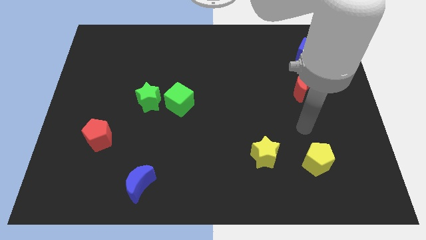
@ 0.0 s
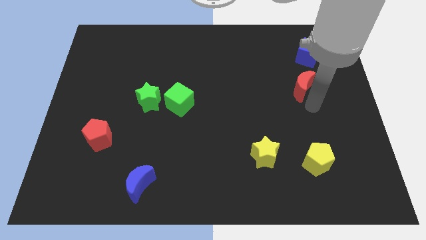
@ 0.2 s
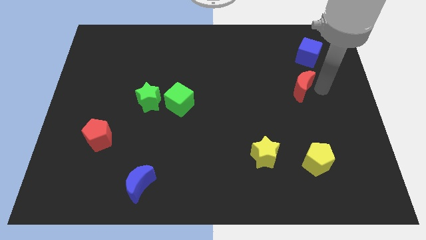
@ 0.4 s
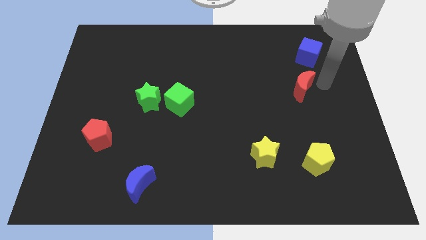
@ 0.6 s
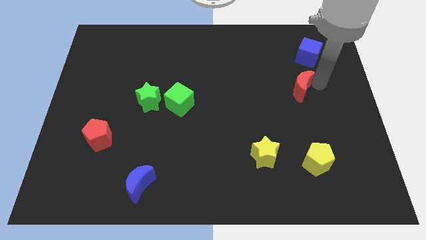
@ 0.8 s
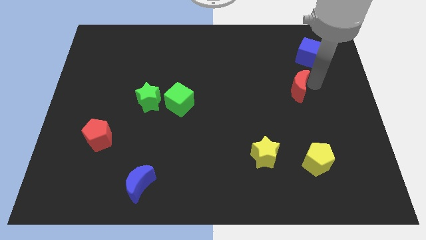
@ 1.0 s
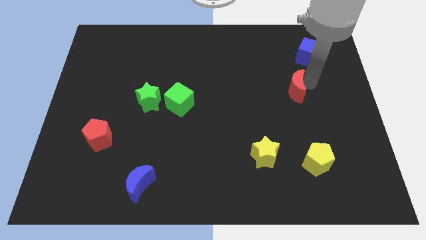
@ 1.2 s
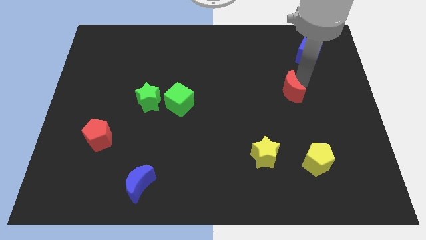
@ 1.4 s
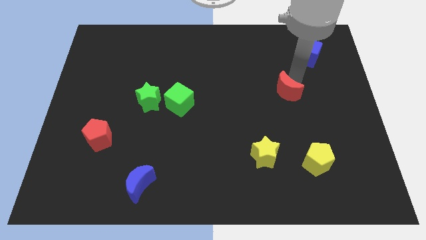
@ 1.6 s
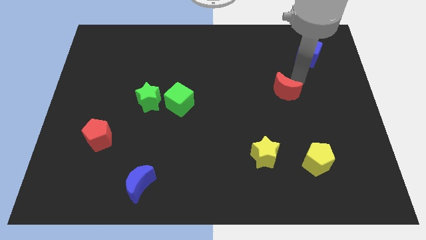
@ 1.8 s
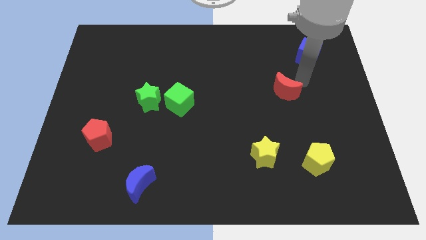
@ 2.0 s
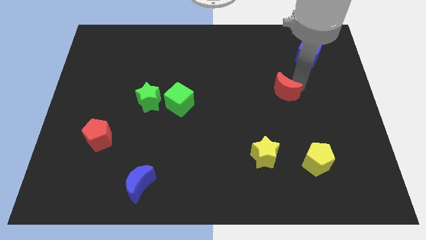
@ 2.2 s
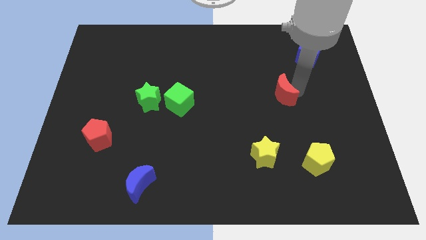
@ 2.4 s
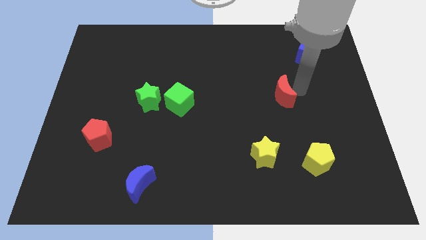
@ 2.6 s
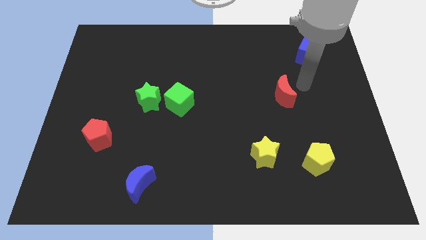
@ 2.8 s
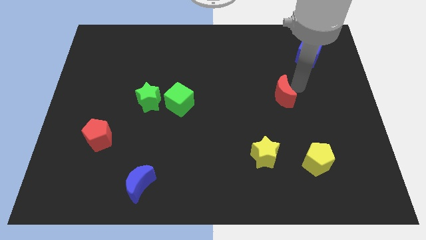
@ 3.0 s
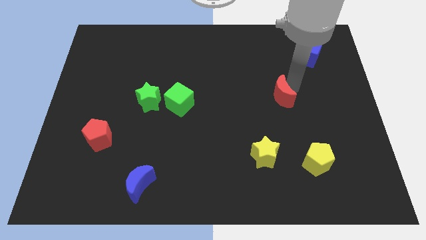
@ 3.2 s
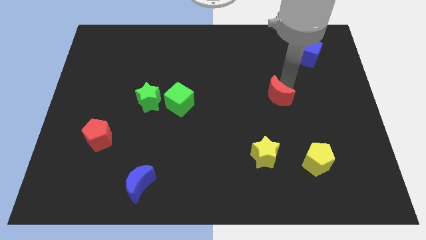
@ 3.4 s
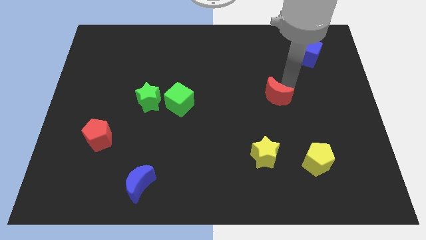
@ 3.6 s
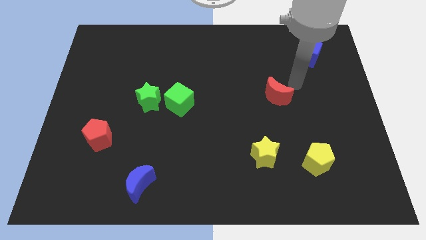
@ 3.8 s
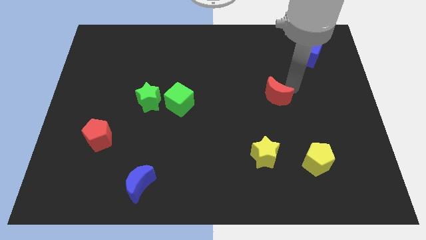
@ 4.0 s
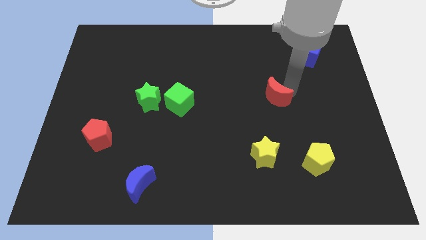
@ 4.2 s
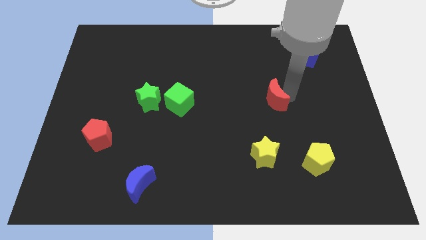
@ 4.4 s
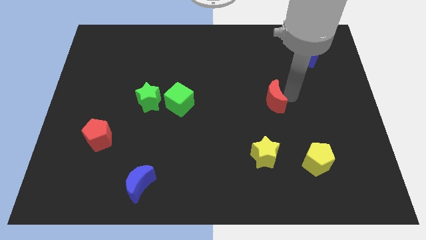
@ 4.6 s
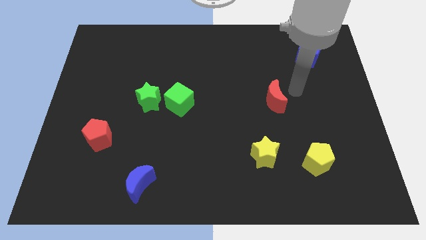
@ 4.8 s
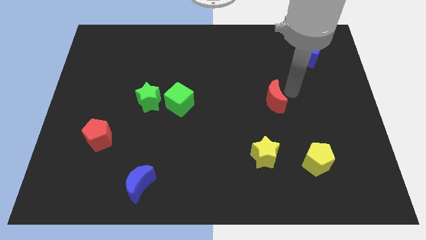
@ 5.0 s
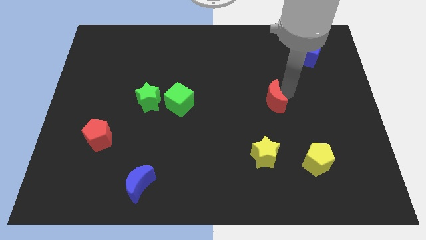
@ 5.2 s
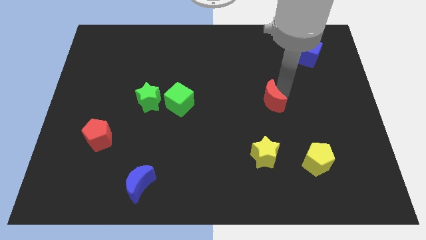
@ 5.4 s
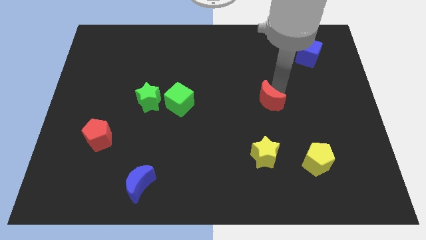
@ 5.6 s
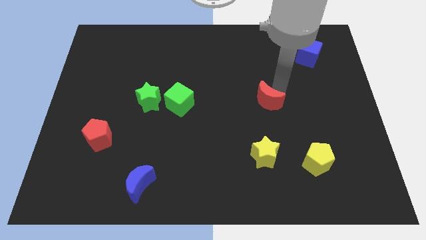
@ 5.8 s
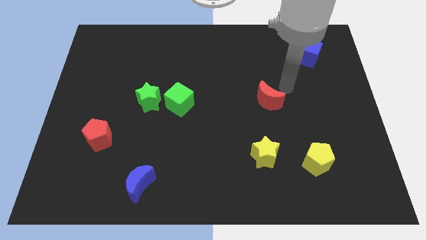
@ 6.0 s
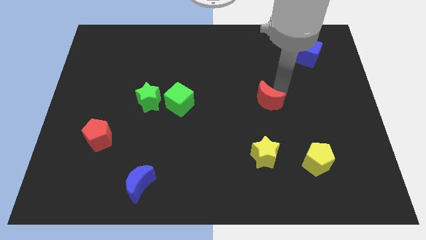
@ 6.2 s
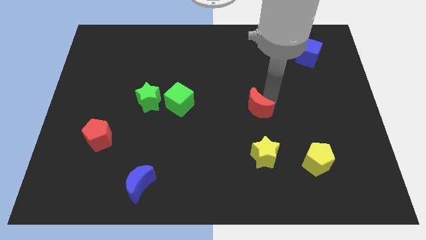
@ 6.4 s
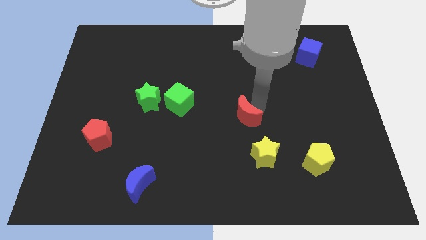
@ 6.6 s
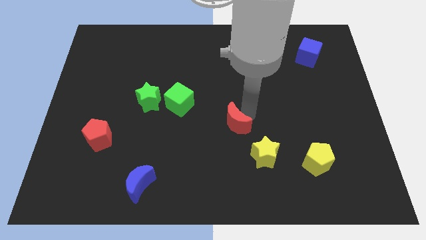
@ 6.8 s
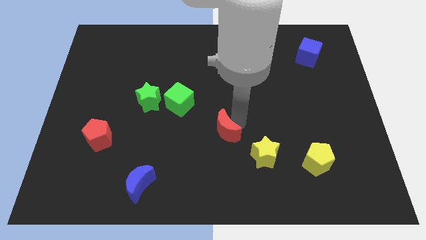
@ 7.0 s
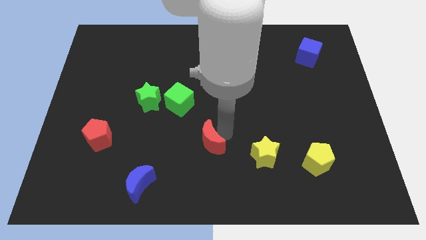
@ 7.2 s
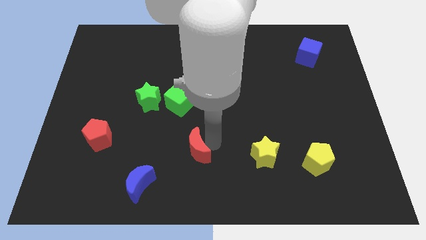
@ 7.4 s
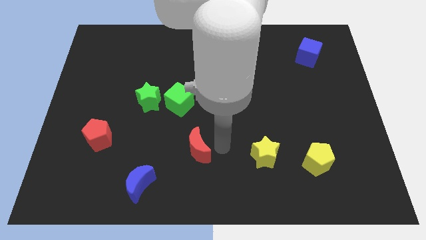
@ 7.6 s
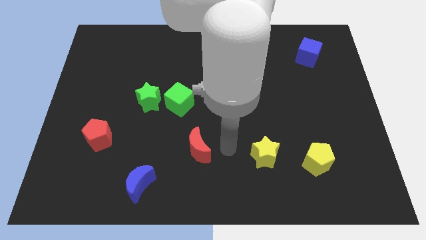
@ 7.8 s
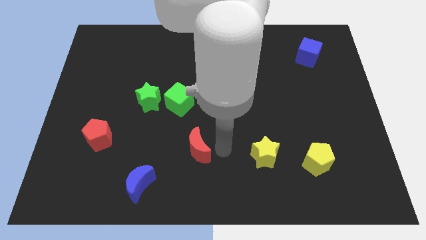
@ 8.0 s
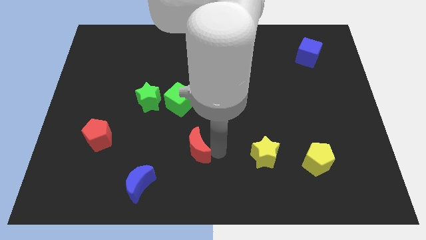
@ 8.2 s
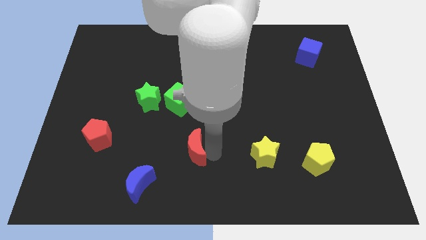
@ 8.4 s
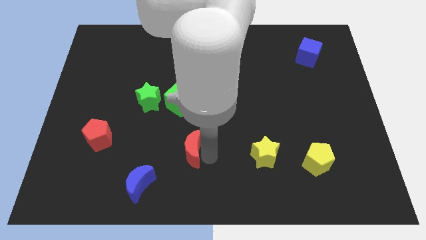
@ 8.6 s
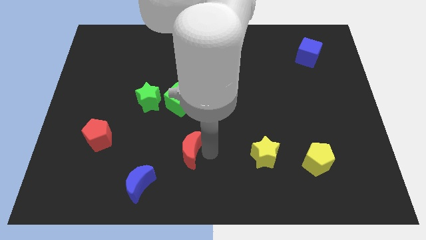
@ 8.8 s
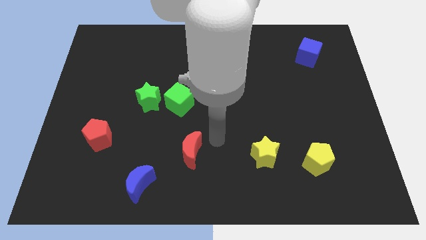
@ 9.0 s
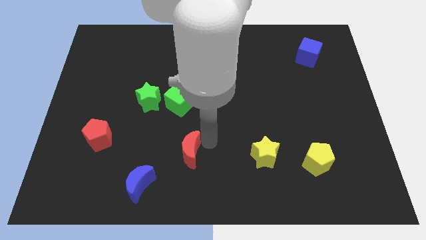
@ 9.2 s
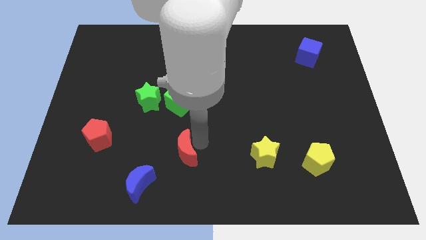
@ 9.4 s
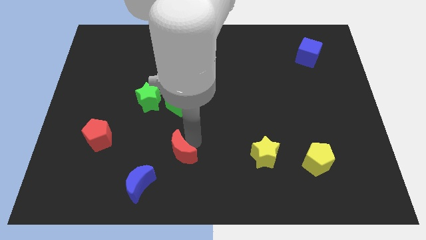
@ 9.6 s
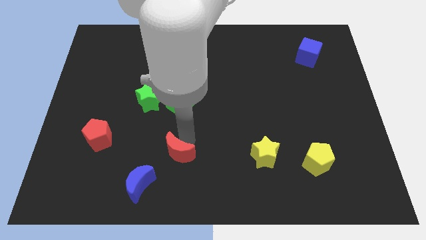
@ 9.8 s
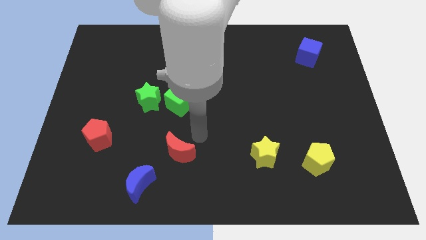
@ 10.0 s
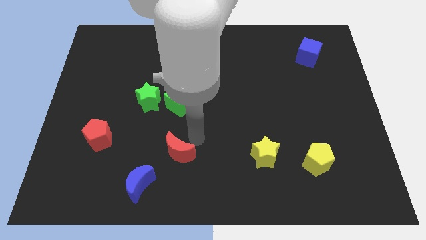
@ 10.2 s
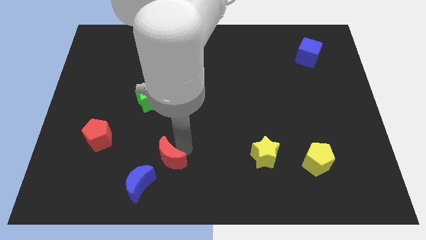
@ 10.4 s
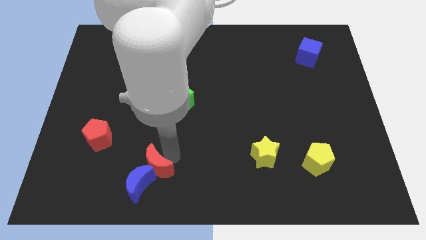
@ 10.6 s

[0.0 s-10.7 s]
move the red moon towards the blue moon

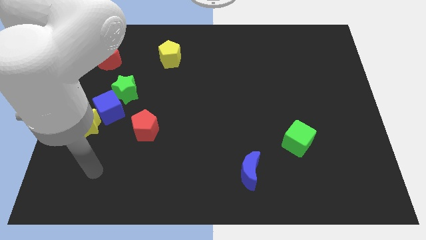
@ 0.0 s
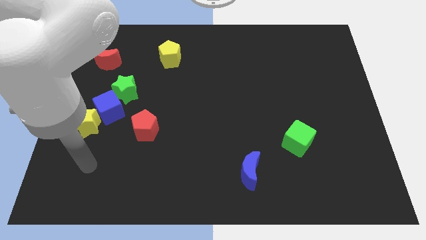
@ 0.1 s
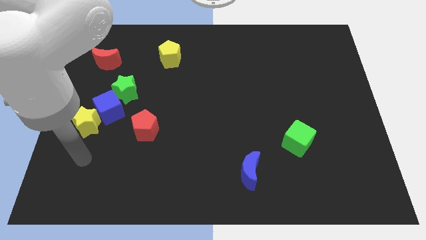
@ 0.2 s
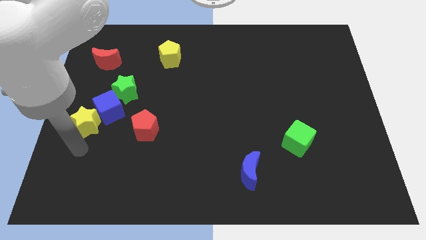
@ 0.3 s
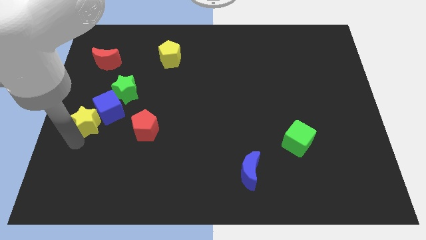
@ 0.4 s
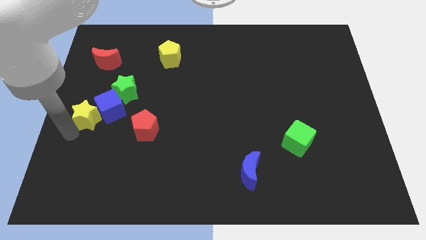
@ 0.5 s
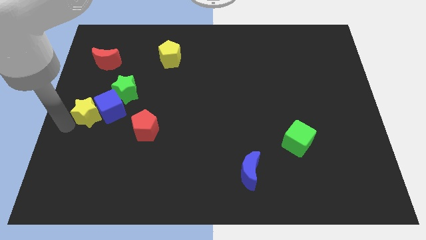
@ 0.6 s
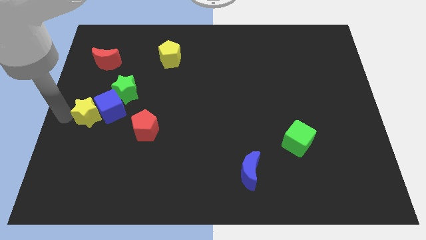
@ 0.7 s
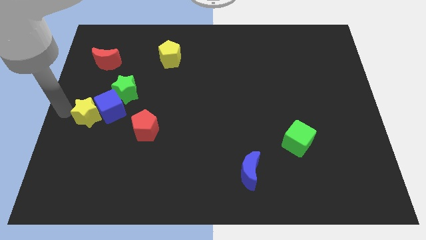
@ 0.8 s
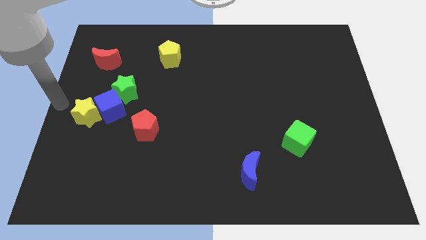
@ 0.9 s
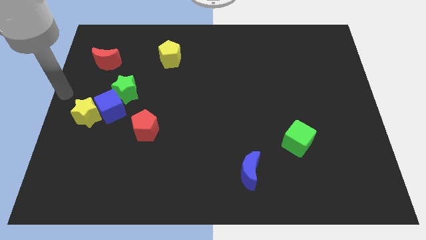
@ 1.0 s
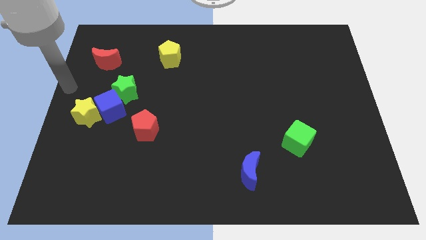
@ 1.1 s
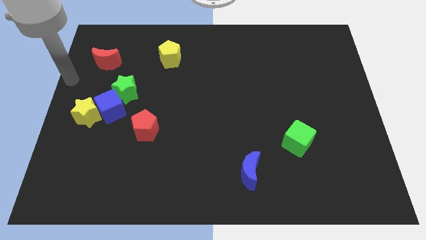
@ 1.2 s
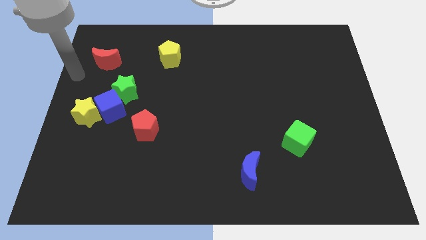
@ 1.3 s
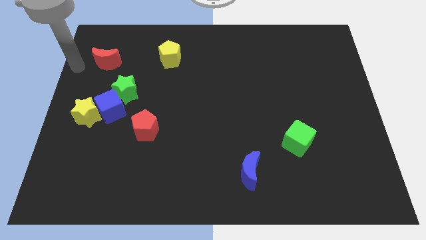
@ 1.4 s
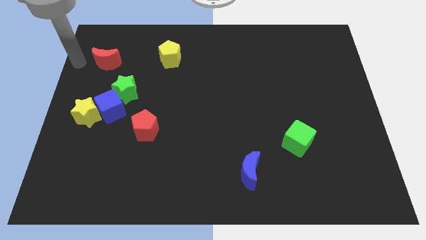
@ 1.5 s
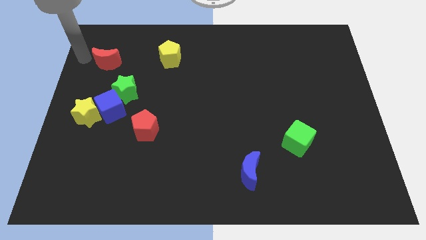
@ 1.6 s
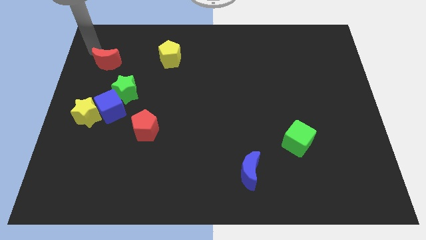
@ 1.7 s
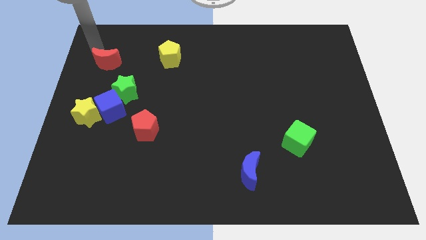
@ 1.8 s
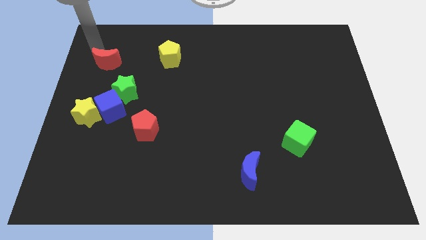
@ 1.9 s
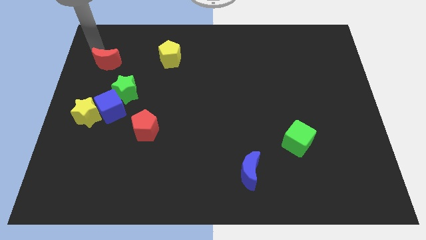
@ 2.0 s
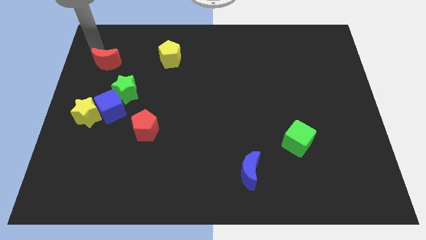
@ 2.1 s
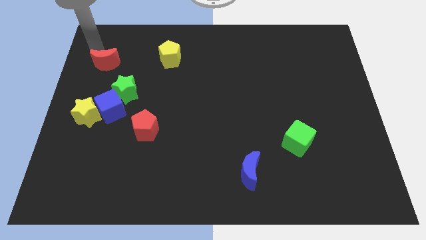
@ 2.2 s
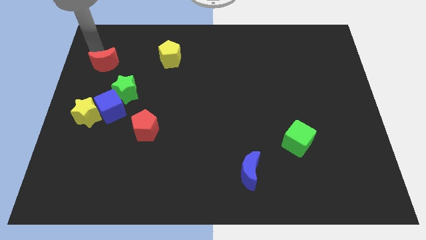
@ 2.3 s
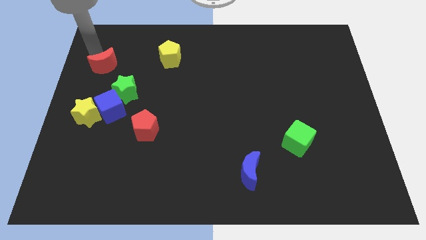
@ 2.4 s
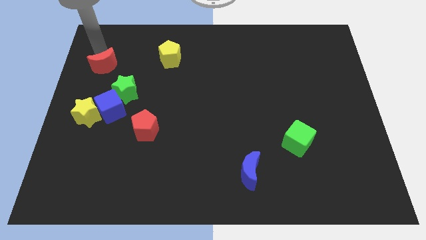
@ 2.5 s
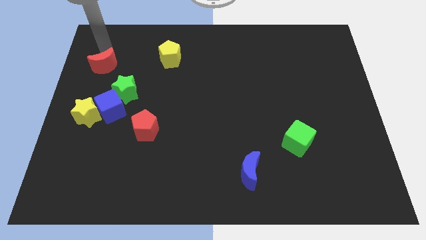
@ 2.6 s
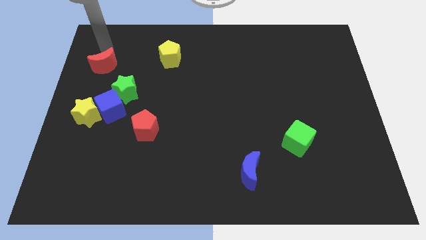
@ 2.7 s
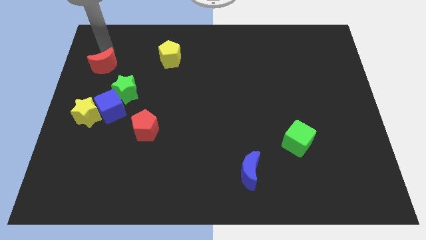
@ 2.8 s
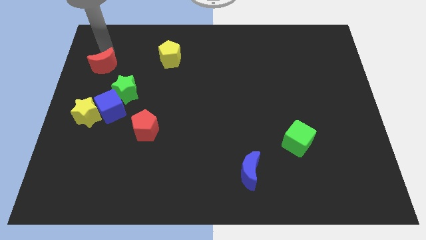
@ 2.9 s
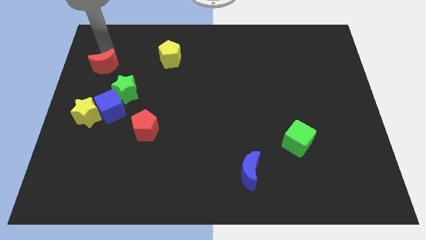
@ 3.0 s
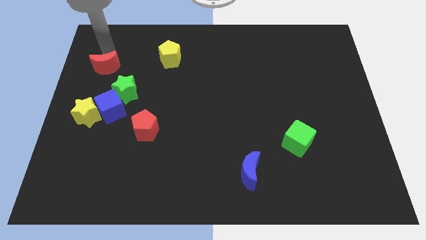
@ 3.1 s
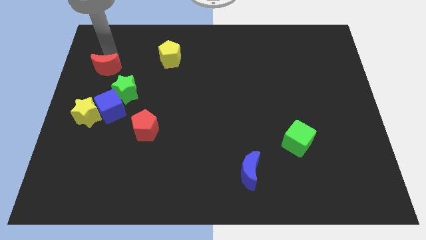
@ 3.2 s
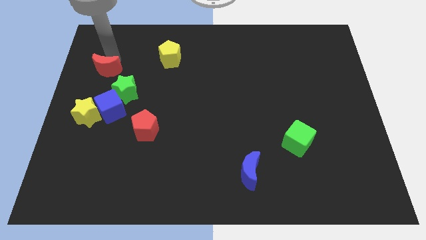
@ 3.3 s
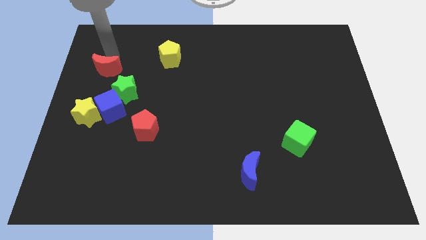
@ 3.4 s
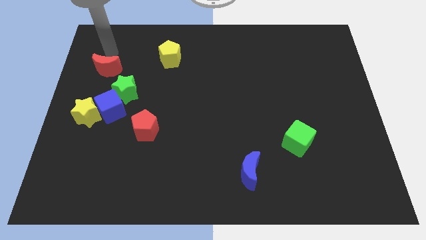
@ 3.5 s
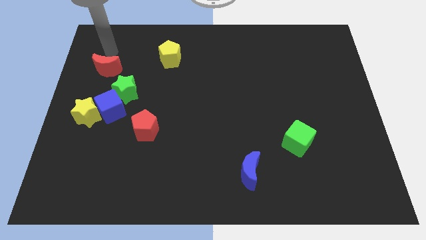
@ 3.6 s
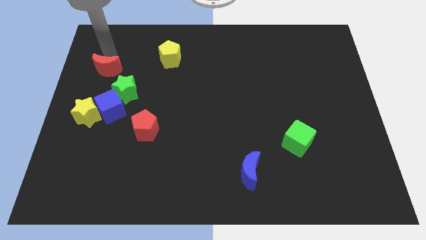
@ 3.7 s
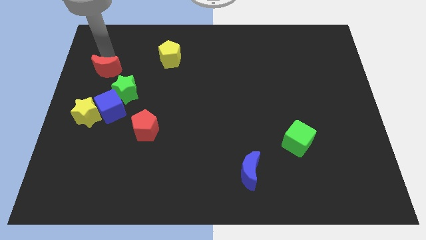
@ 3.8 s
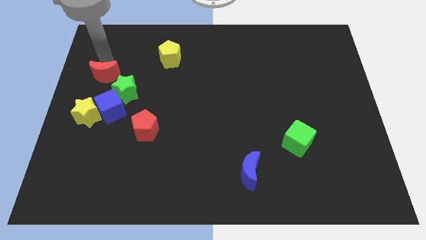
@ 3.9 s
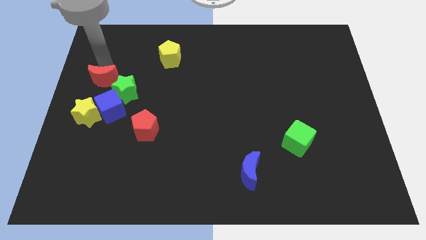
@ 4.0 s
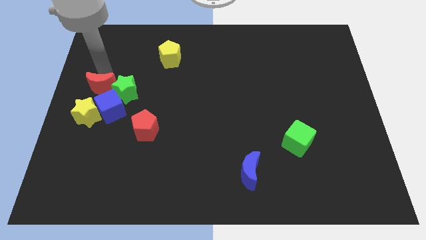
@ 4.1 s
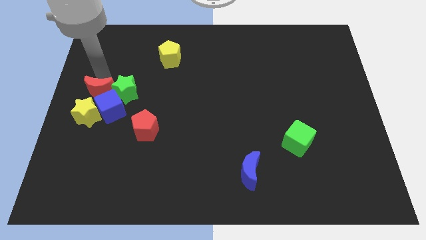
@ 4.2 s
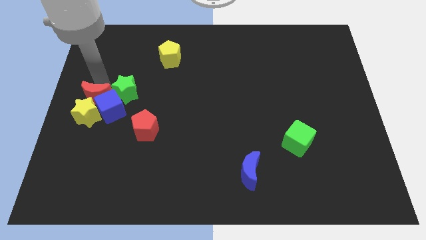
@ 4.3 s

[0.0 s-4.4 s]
push the red moon to the yellow star
